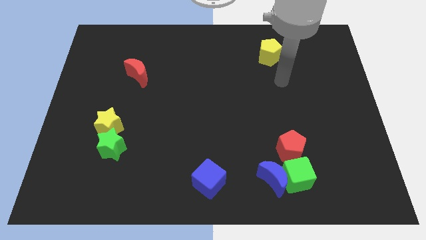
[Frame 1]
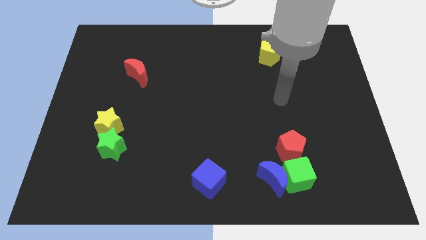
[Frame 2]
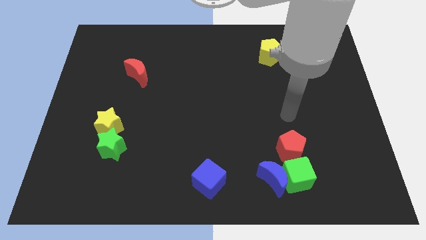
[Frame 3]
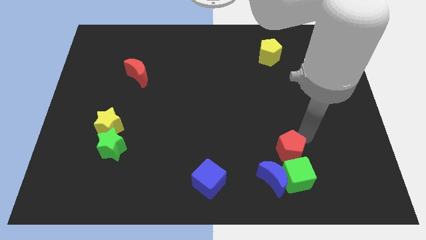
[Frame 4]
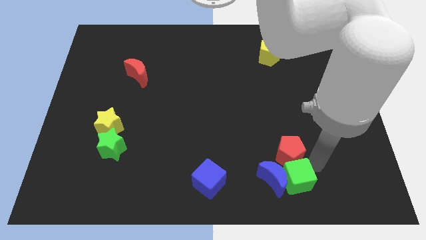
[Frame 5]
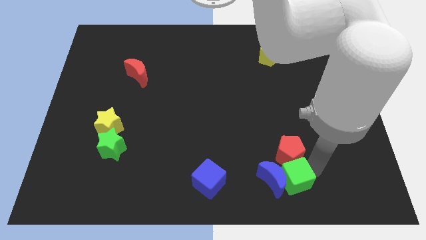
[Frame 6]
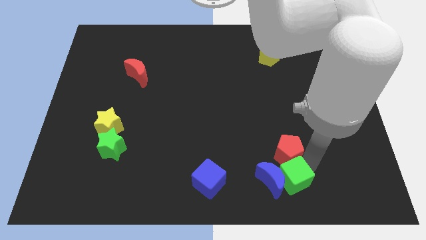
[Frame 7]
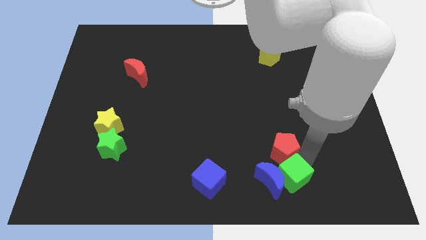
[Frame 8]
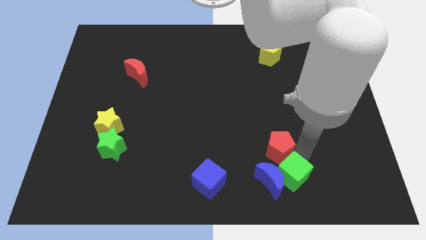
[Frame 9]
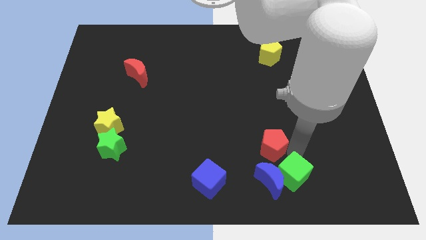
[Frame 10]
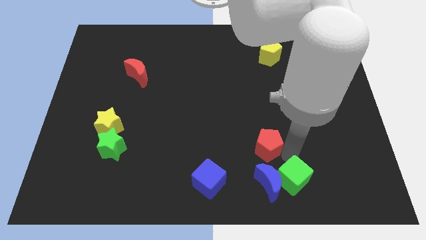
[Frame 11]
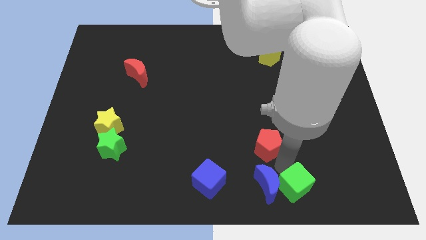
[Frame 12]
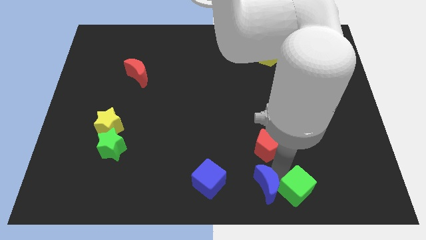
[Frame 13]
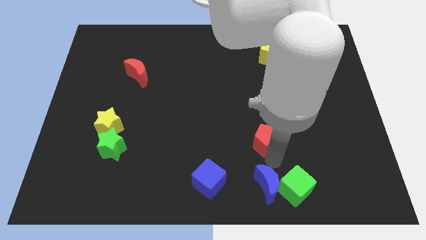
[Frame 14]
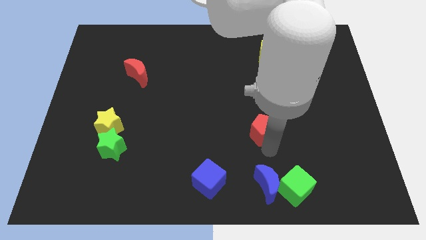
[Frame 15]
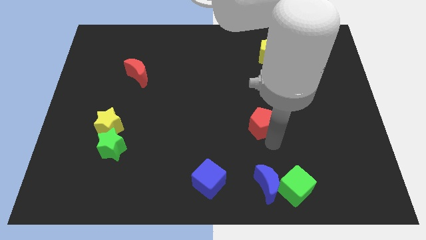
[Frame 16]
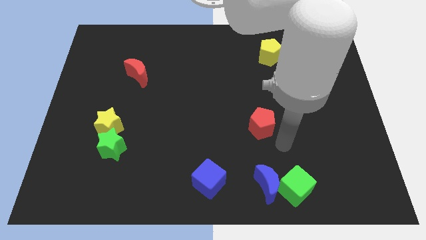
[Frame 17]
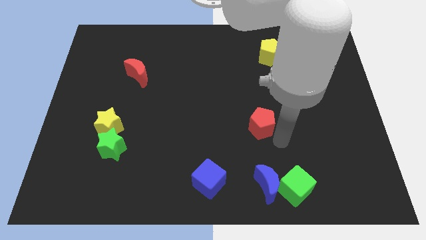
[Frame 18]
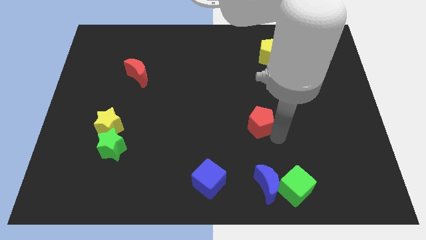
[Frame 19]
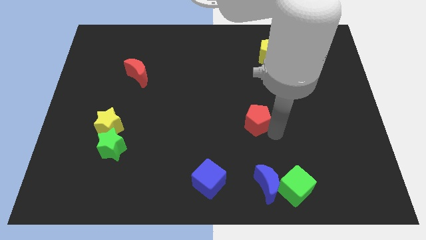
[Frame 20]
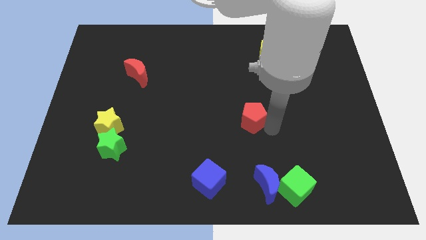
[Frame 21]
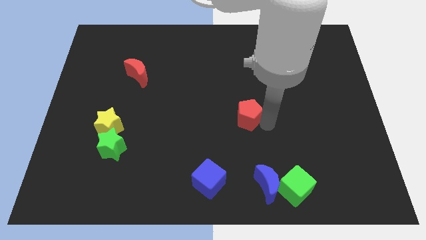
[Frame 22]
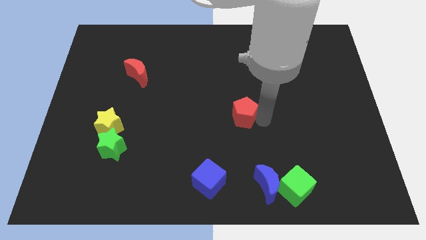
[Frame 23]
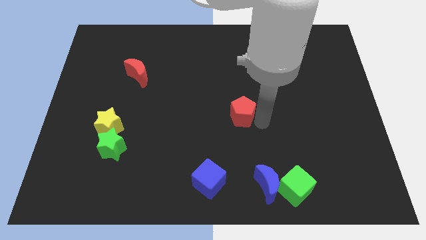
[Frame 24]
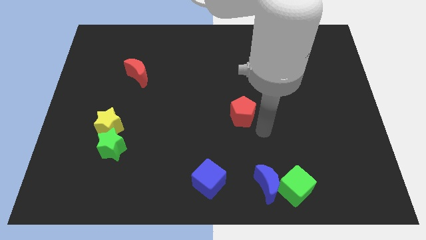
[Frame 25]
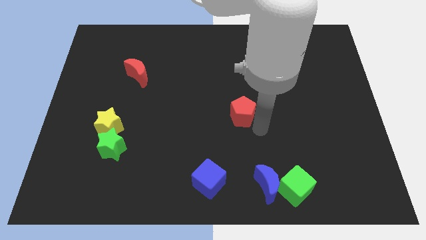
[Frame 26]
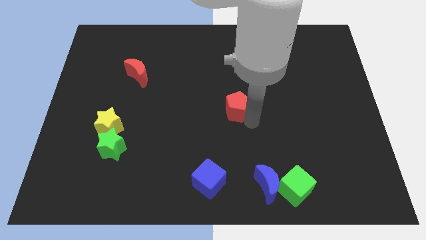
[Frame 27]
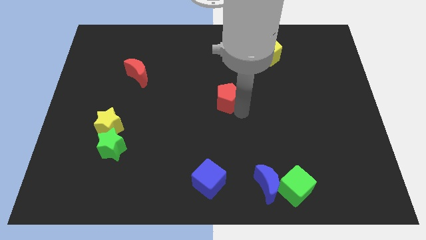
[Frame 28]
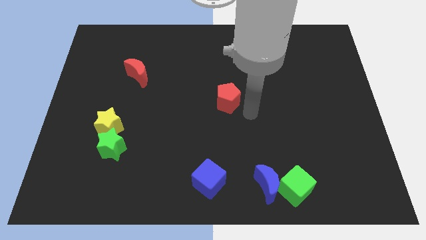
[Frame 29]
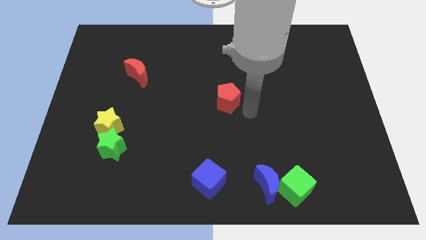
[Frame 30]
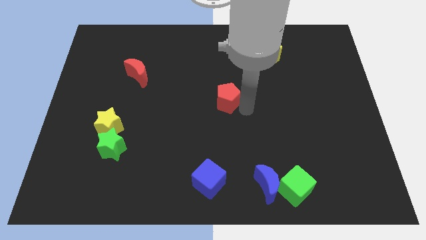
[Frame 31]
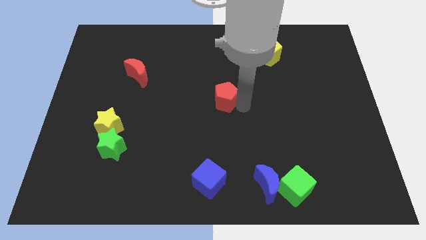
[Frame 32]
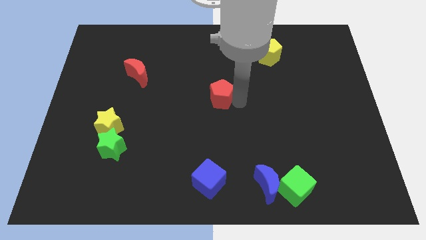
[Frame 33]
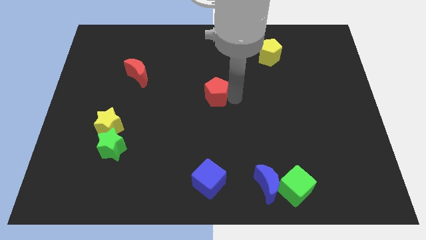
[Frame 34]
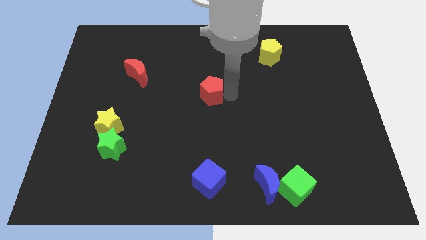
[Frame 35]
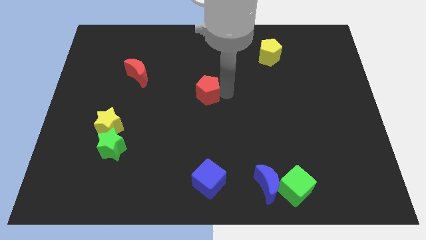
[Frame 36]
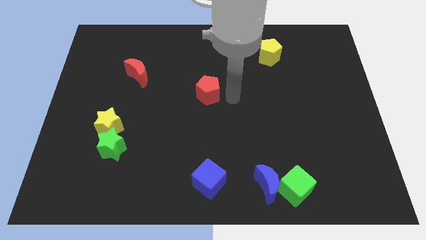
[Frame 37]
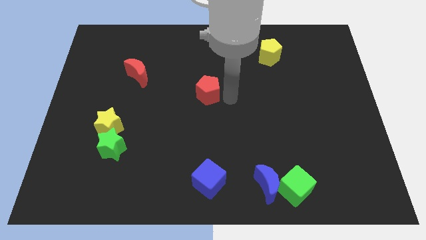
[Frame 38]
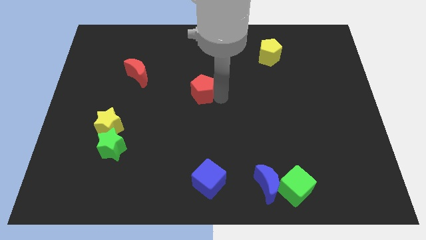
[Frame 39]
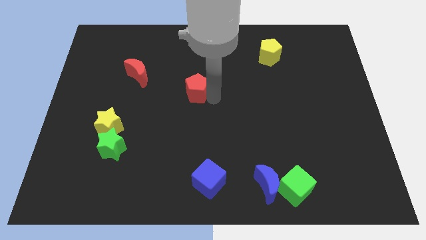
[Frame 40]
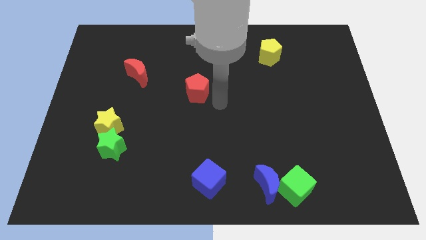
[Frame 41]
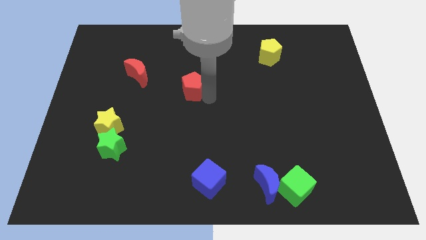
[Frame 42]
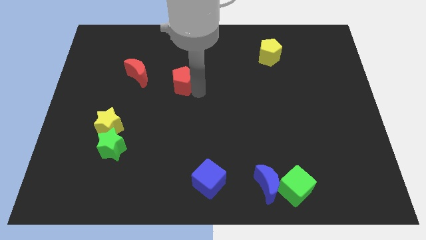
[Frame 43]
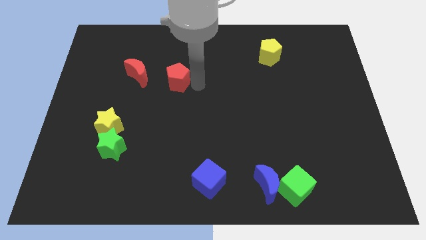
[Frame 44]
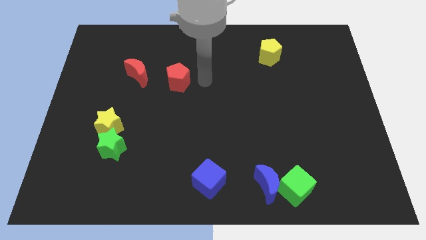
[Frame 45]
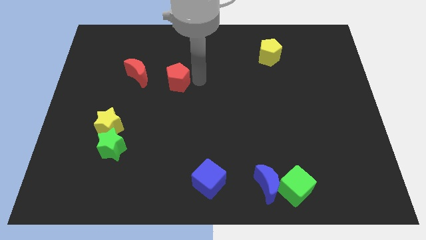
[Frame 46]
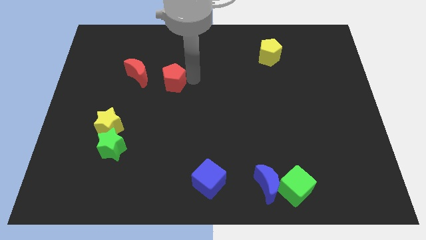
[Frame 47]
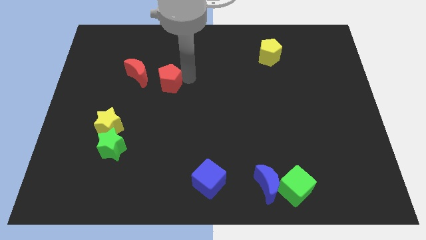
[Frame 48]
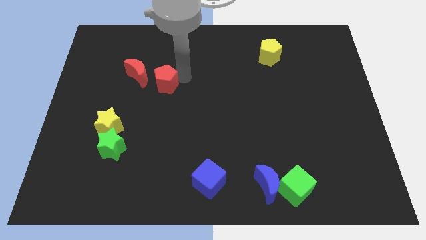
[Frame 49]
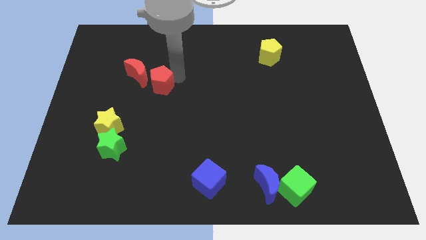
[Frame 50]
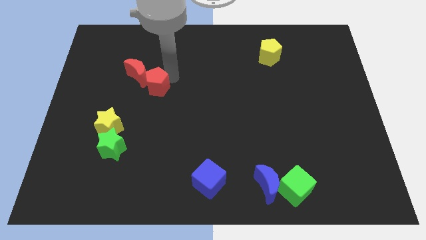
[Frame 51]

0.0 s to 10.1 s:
slide the red pentagon next to the red moon

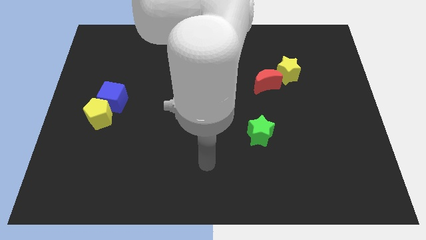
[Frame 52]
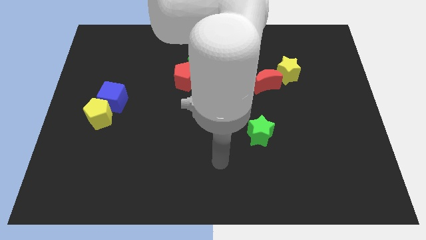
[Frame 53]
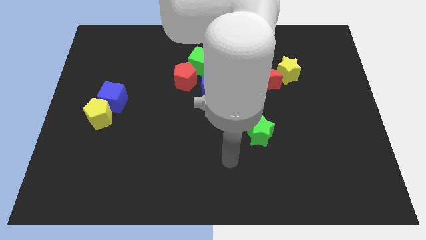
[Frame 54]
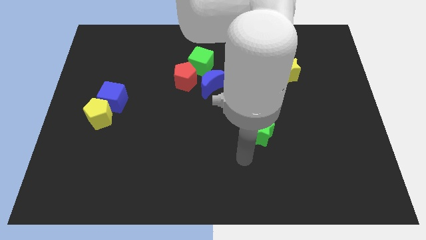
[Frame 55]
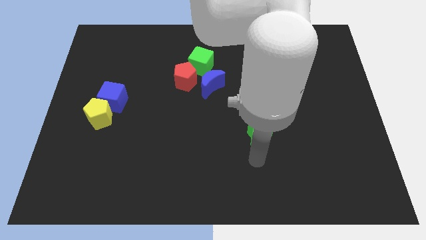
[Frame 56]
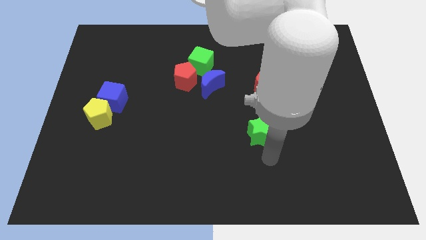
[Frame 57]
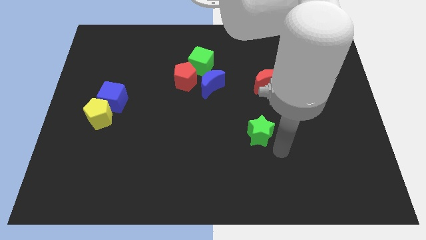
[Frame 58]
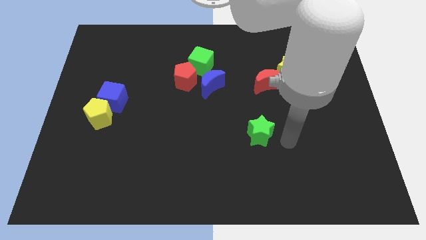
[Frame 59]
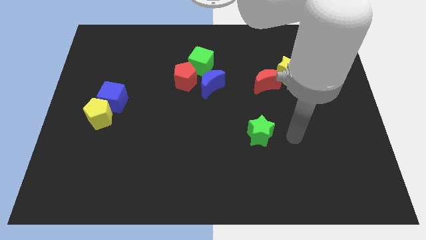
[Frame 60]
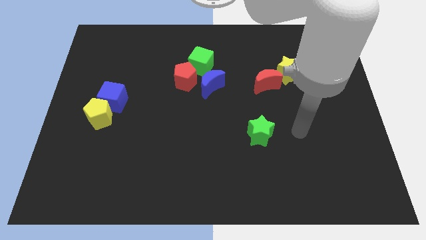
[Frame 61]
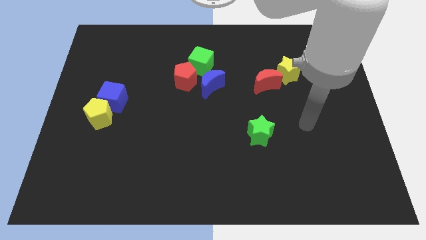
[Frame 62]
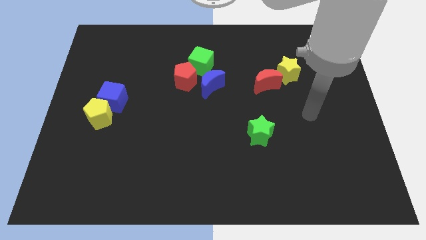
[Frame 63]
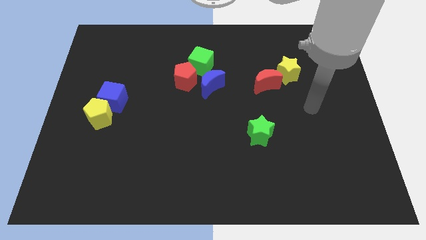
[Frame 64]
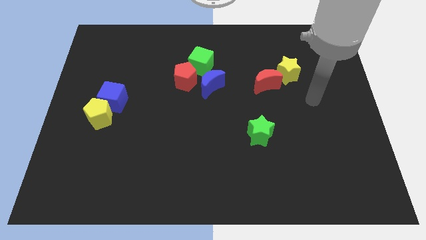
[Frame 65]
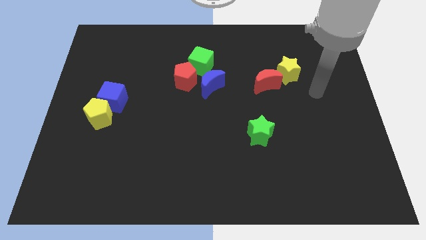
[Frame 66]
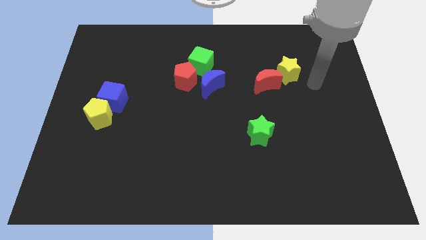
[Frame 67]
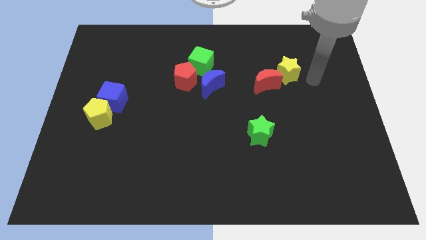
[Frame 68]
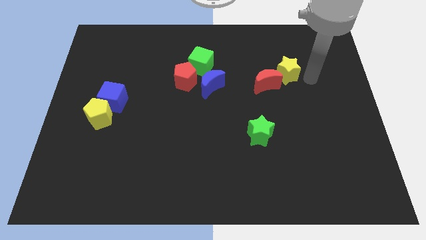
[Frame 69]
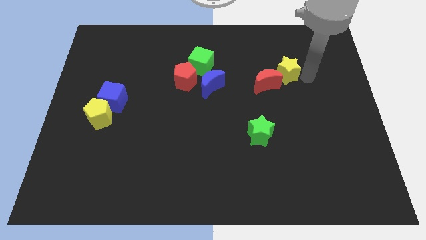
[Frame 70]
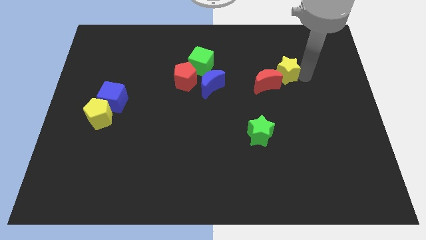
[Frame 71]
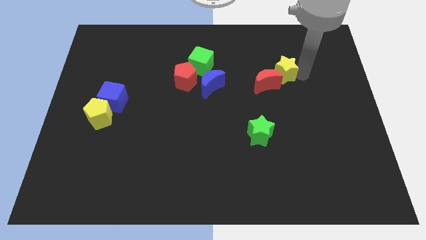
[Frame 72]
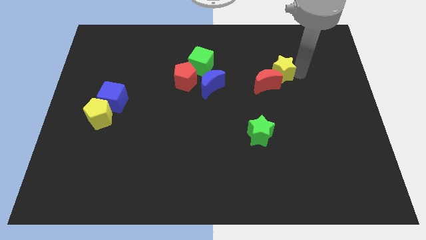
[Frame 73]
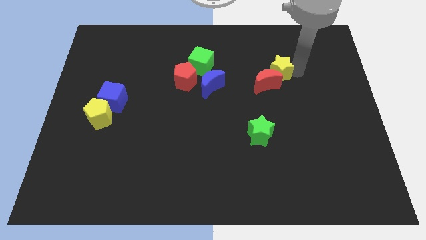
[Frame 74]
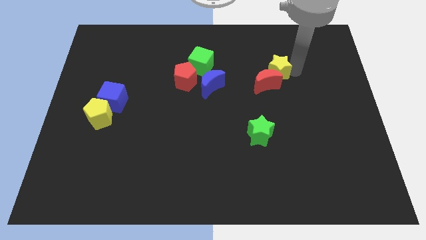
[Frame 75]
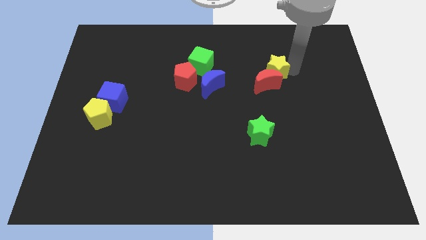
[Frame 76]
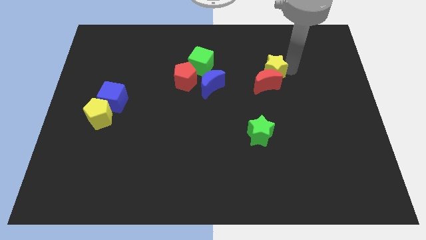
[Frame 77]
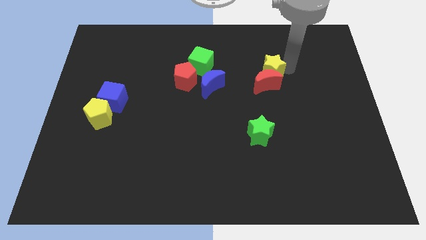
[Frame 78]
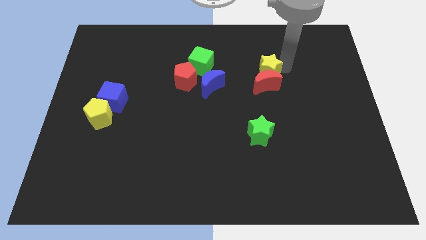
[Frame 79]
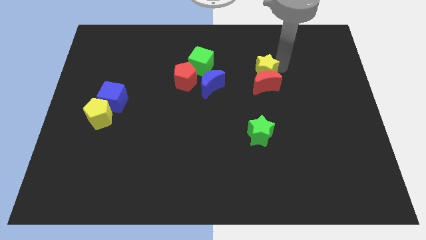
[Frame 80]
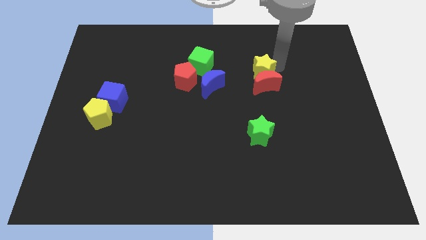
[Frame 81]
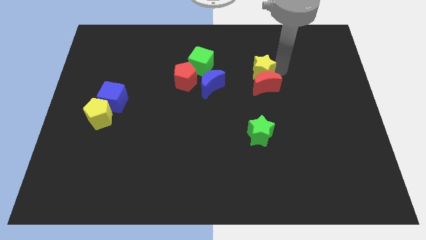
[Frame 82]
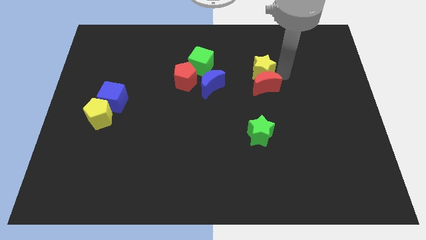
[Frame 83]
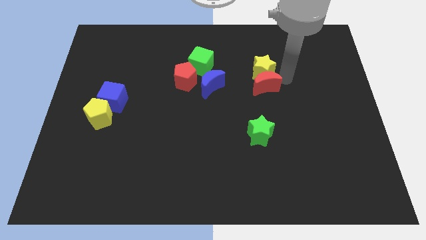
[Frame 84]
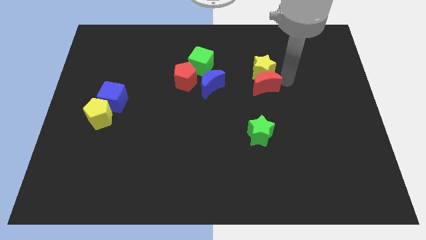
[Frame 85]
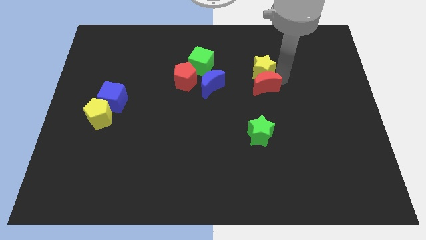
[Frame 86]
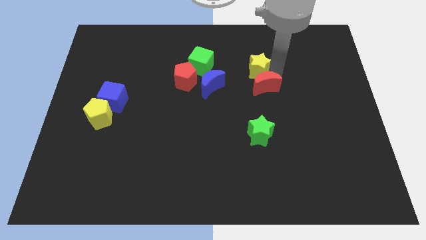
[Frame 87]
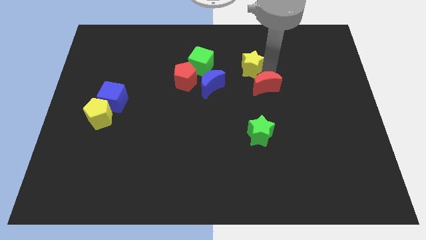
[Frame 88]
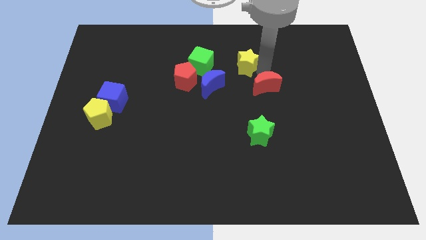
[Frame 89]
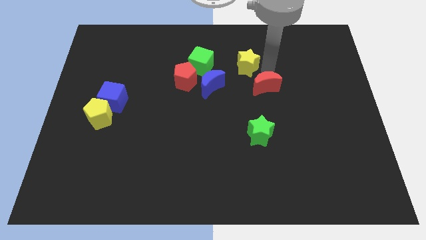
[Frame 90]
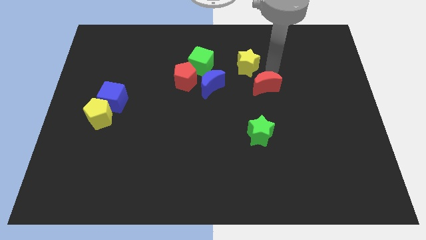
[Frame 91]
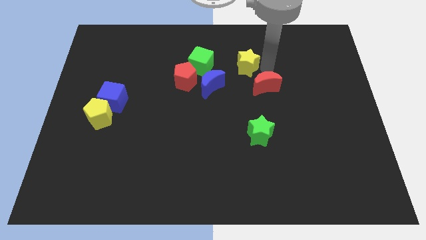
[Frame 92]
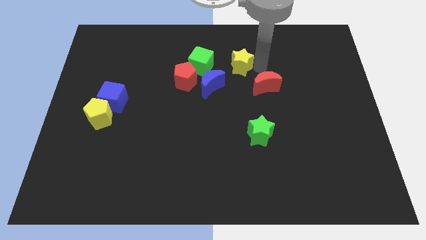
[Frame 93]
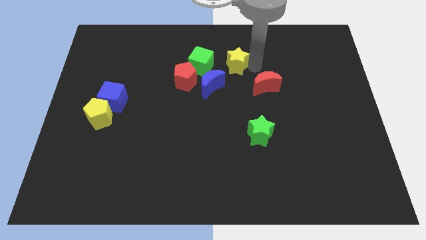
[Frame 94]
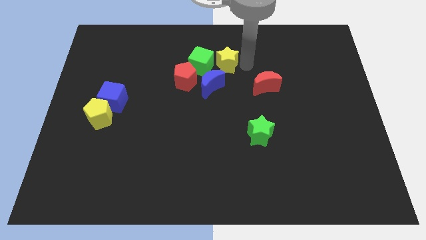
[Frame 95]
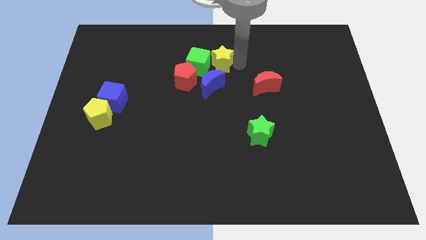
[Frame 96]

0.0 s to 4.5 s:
put the yellow star next to the green cube
